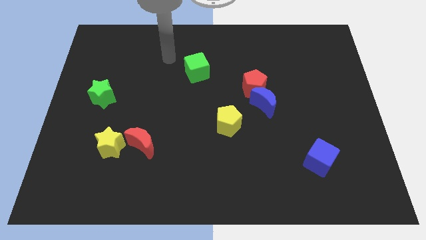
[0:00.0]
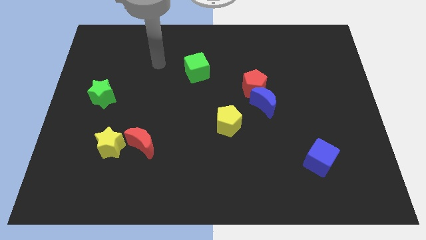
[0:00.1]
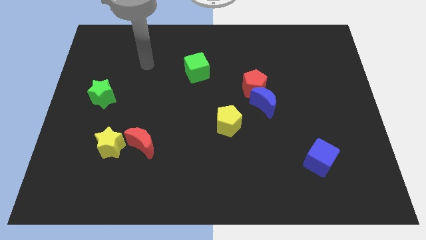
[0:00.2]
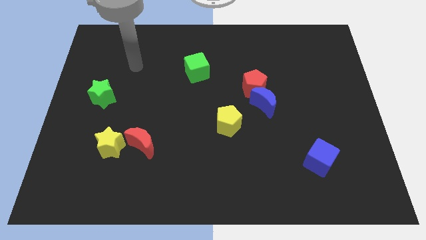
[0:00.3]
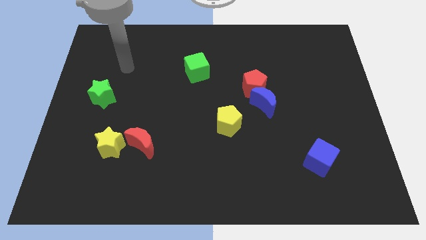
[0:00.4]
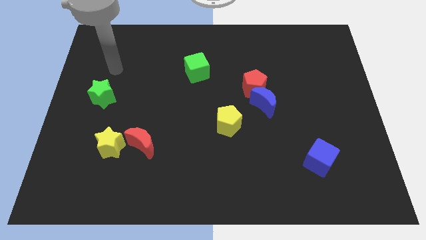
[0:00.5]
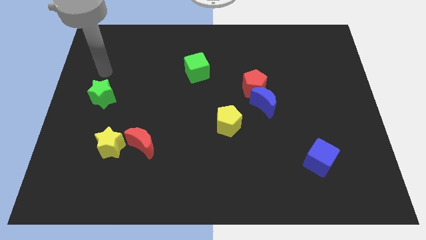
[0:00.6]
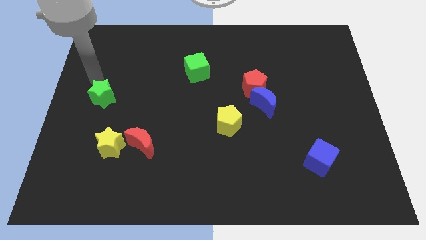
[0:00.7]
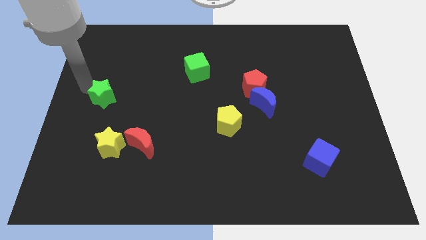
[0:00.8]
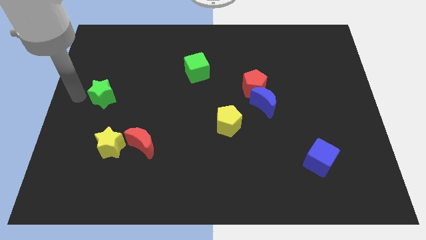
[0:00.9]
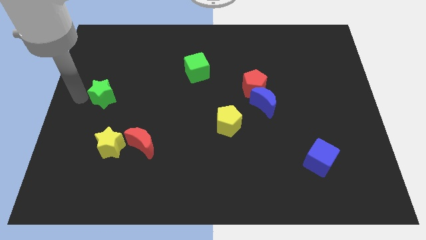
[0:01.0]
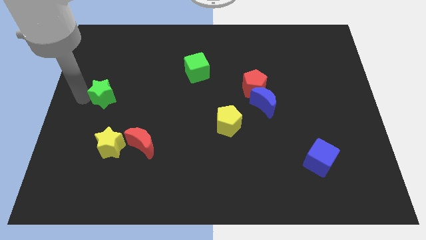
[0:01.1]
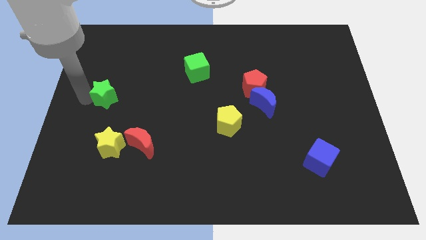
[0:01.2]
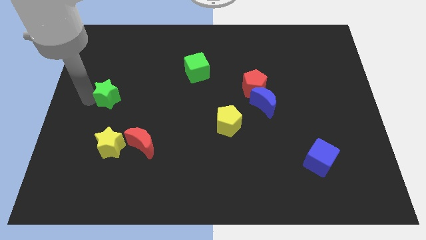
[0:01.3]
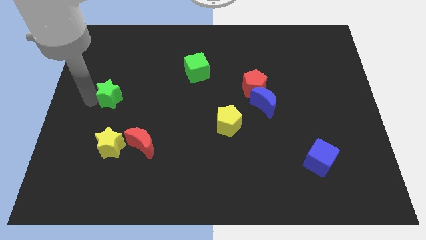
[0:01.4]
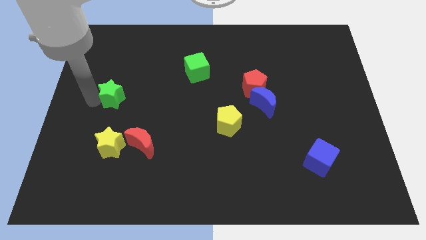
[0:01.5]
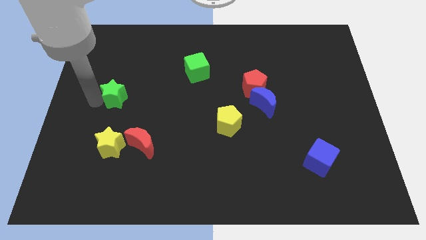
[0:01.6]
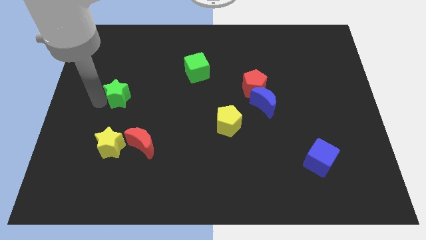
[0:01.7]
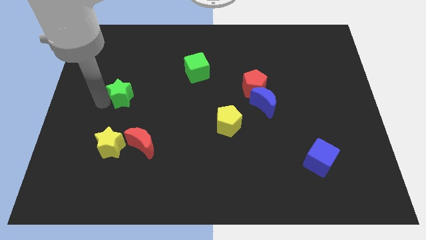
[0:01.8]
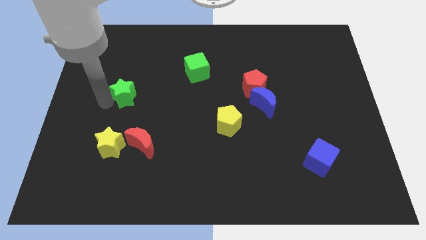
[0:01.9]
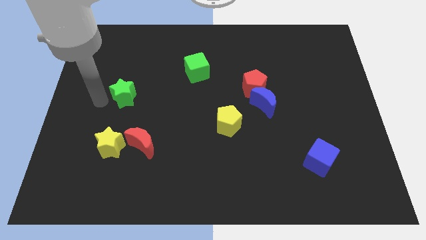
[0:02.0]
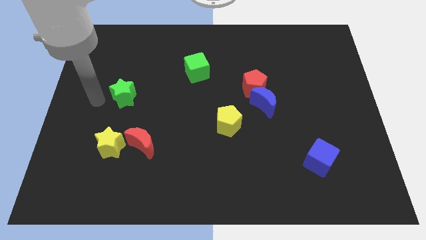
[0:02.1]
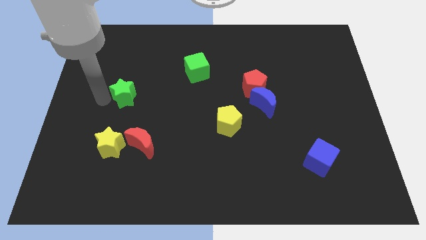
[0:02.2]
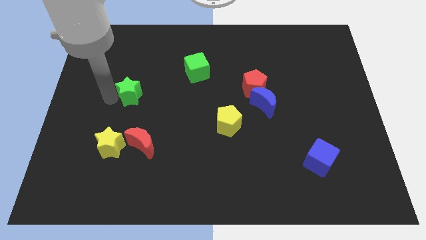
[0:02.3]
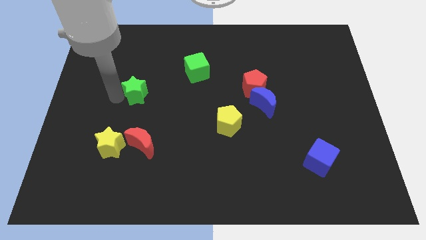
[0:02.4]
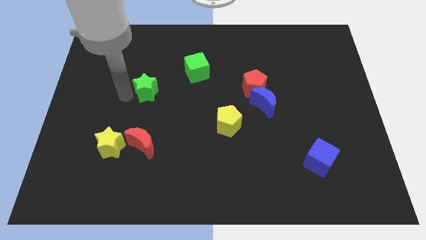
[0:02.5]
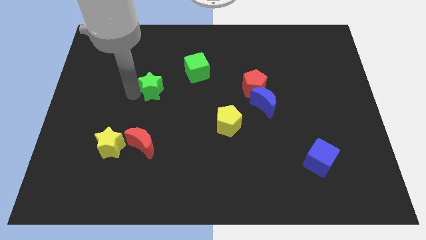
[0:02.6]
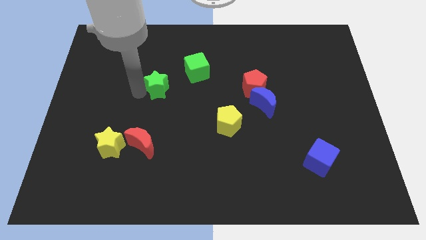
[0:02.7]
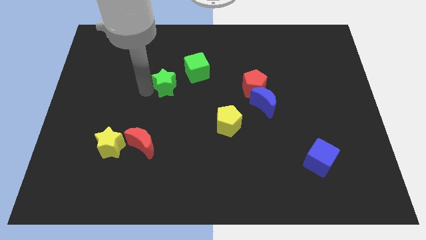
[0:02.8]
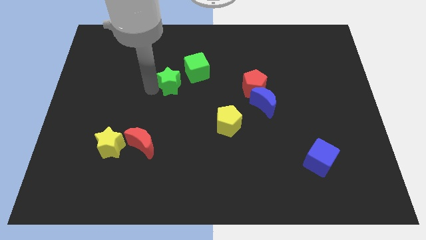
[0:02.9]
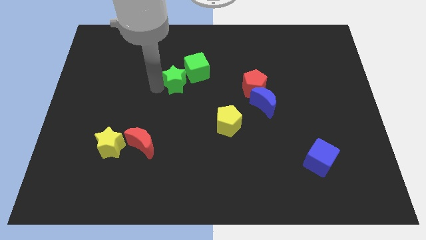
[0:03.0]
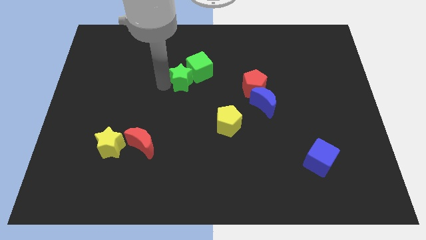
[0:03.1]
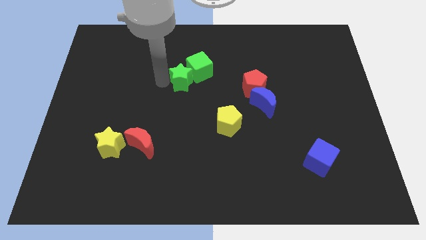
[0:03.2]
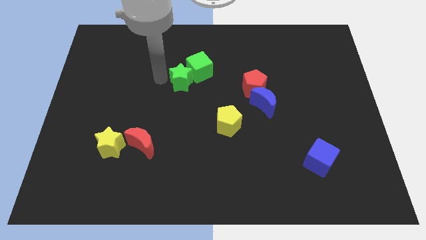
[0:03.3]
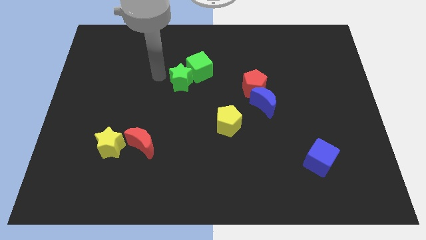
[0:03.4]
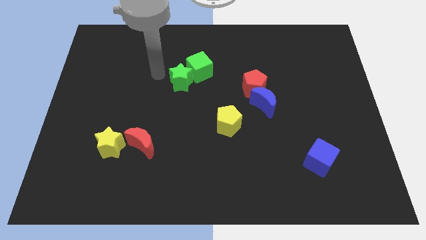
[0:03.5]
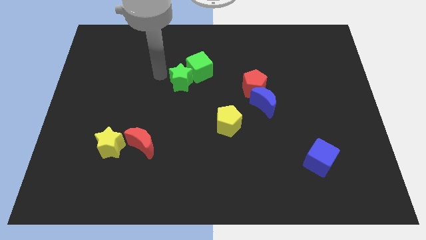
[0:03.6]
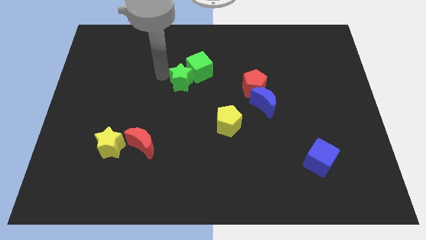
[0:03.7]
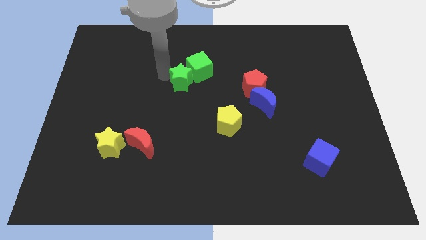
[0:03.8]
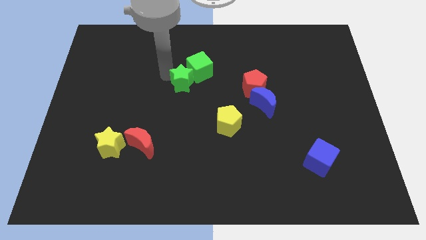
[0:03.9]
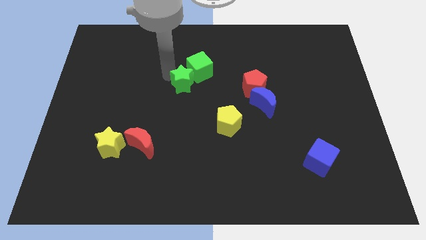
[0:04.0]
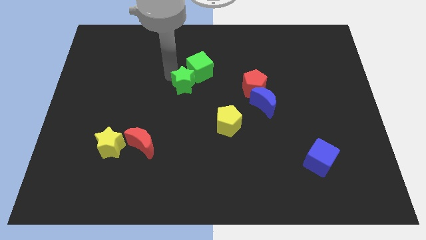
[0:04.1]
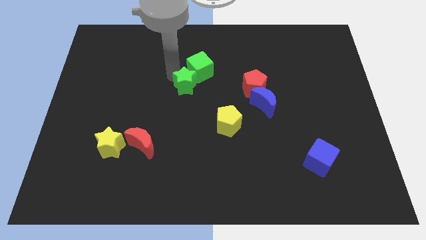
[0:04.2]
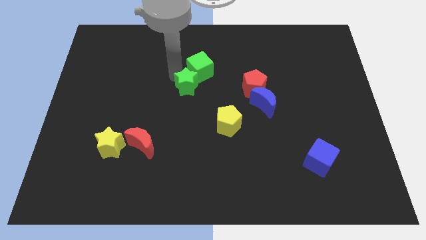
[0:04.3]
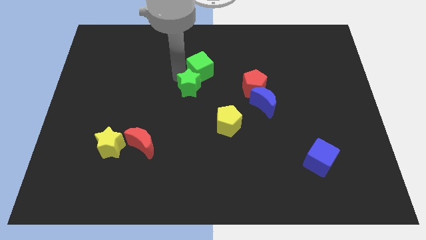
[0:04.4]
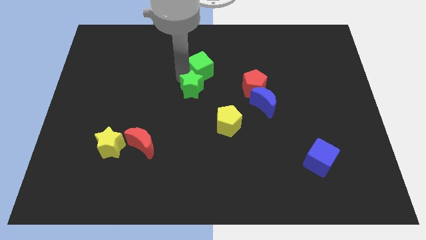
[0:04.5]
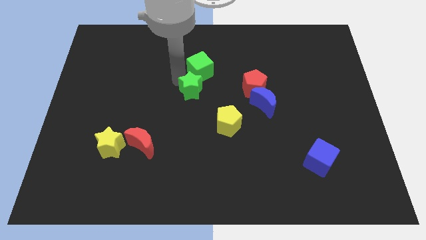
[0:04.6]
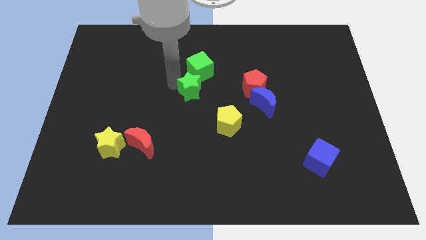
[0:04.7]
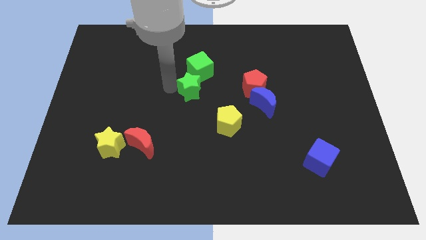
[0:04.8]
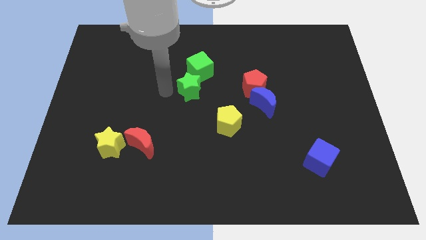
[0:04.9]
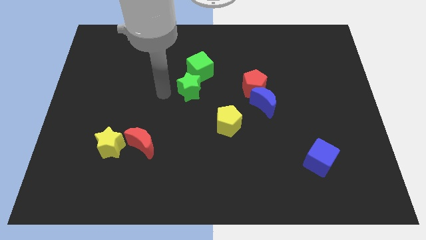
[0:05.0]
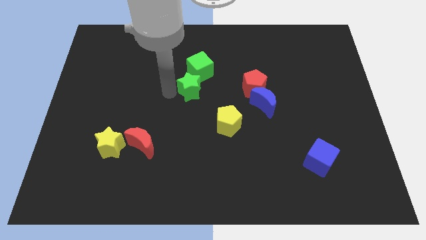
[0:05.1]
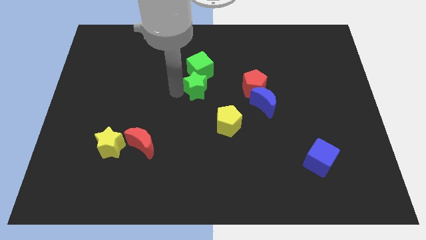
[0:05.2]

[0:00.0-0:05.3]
put the green star diagonally down and to the right of the green cube

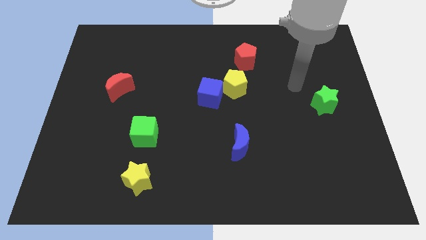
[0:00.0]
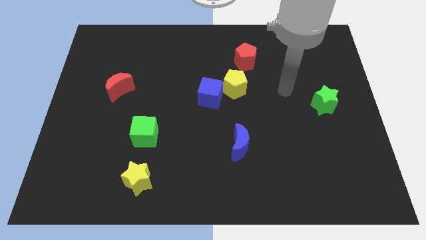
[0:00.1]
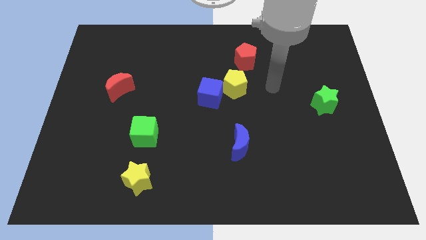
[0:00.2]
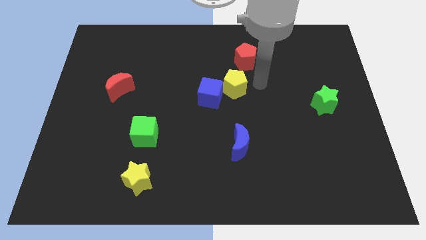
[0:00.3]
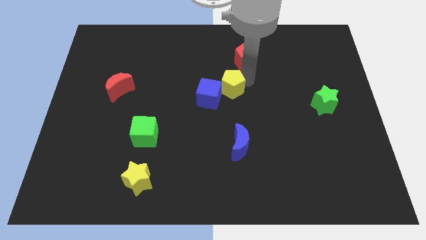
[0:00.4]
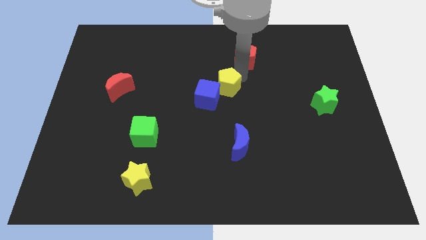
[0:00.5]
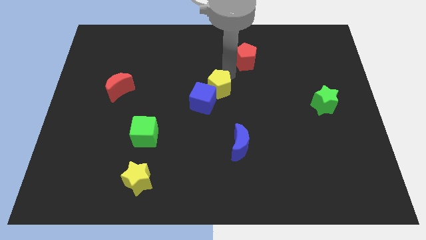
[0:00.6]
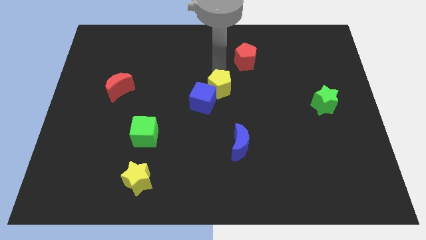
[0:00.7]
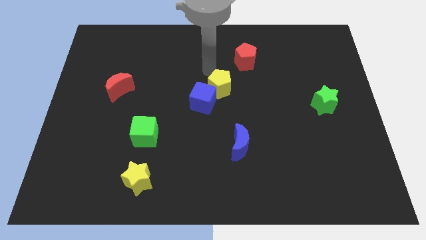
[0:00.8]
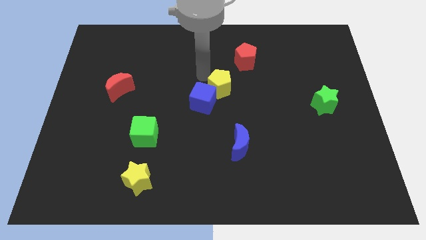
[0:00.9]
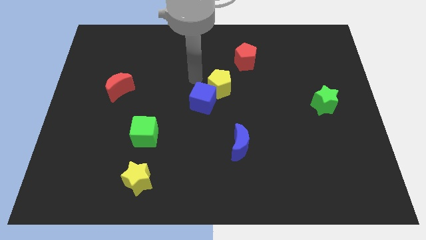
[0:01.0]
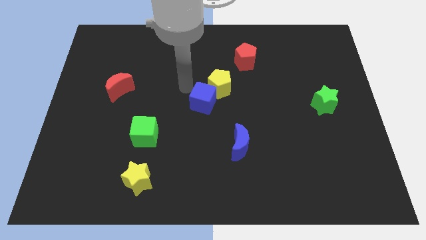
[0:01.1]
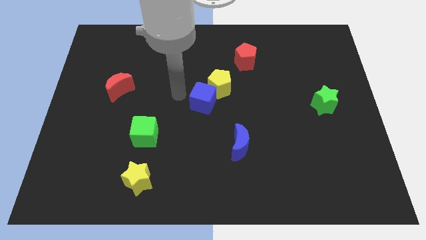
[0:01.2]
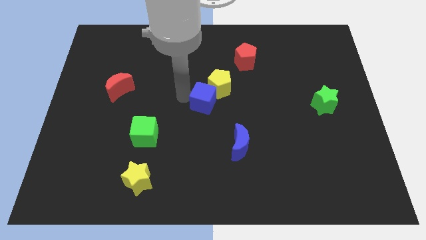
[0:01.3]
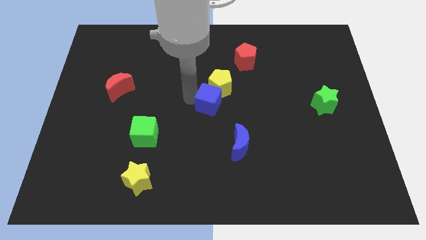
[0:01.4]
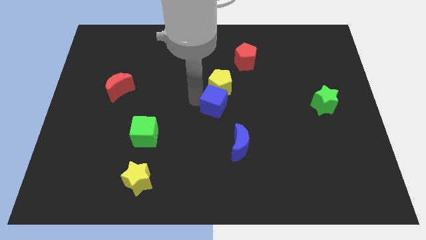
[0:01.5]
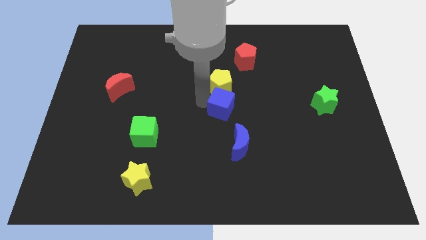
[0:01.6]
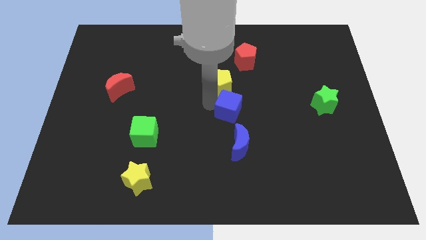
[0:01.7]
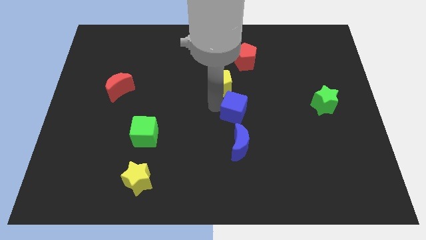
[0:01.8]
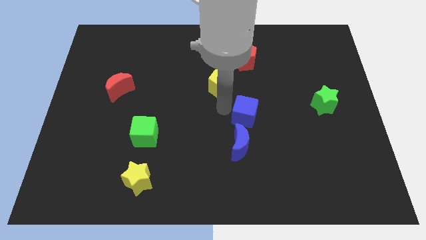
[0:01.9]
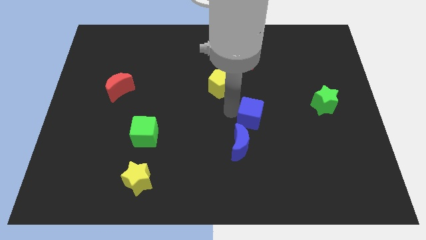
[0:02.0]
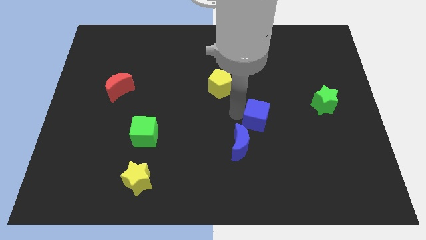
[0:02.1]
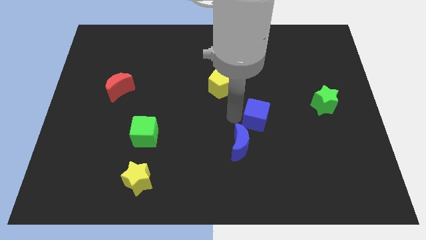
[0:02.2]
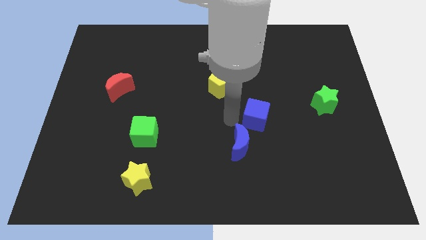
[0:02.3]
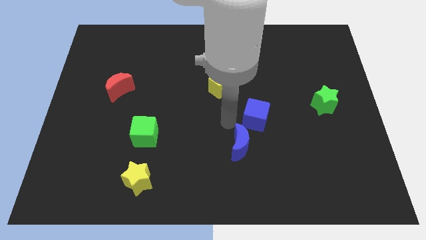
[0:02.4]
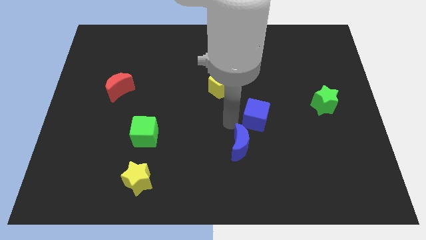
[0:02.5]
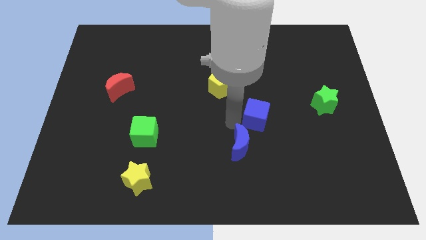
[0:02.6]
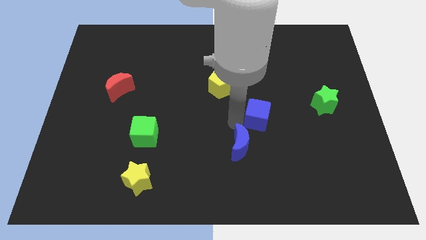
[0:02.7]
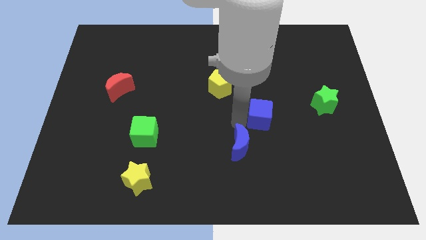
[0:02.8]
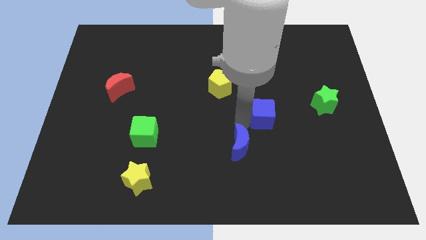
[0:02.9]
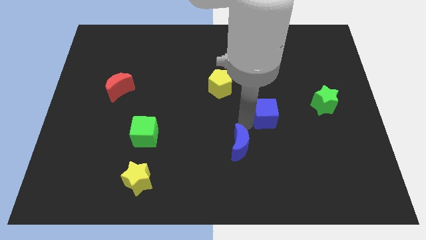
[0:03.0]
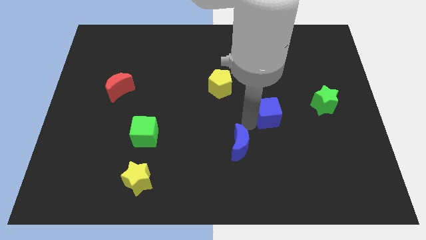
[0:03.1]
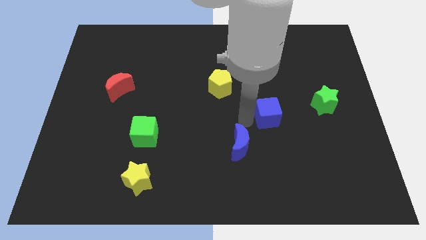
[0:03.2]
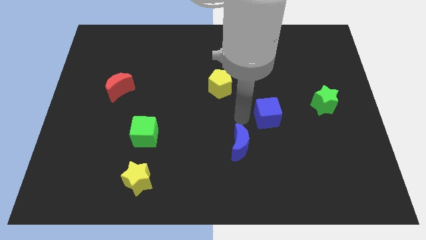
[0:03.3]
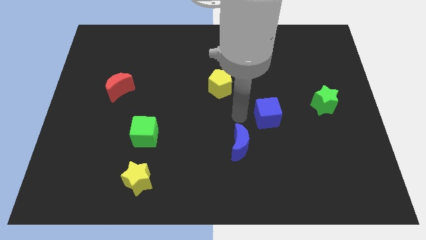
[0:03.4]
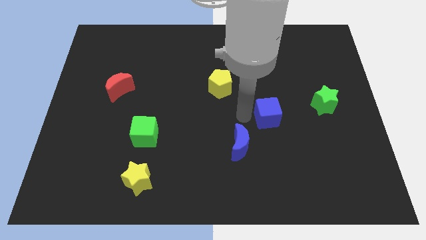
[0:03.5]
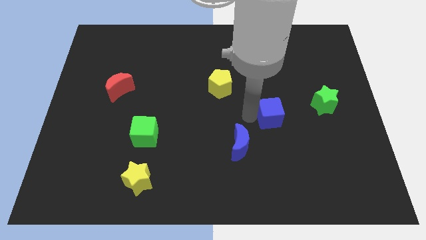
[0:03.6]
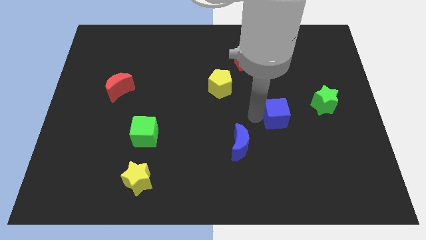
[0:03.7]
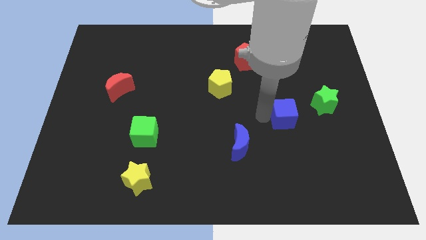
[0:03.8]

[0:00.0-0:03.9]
push the blue cube to the bottom left of the green star
